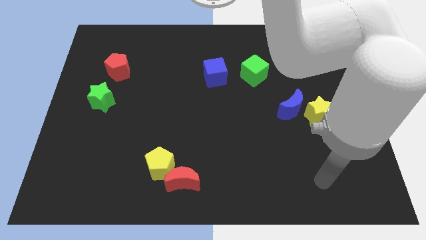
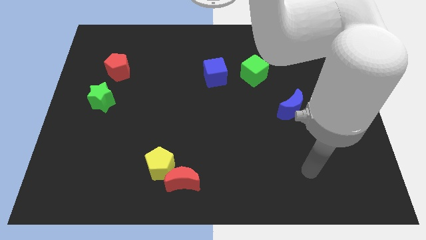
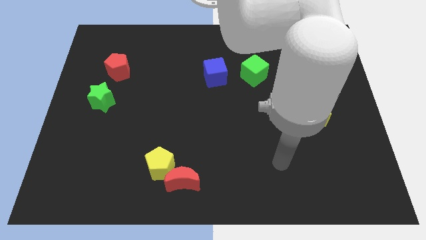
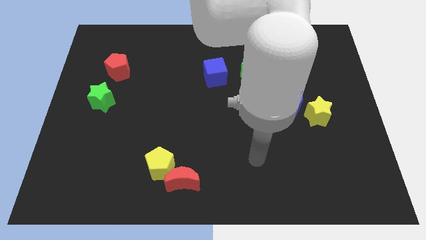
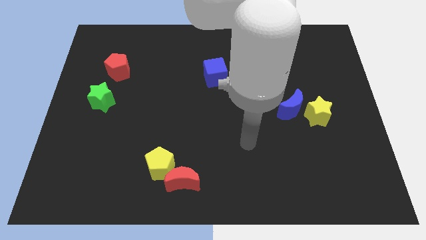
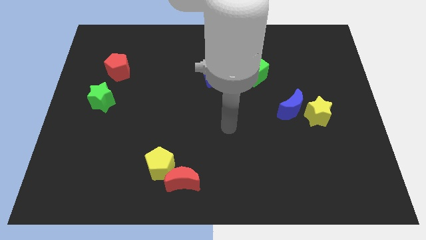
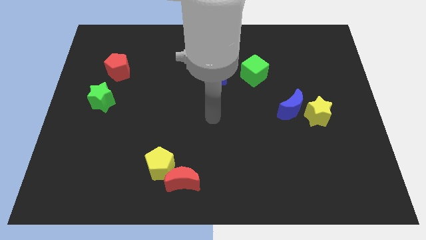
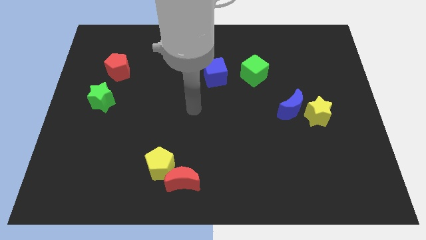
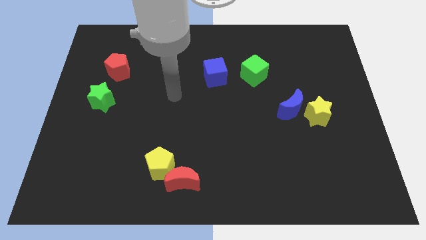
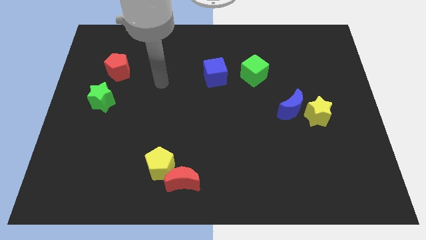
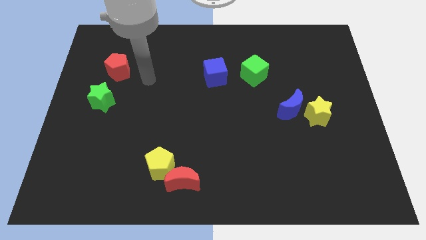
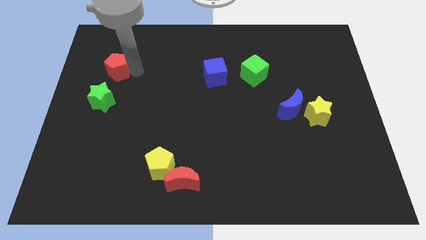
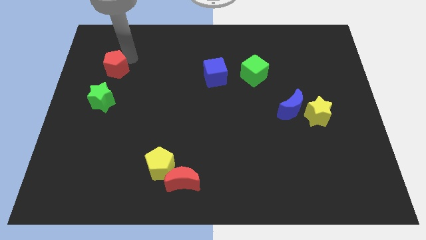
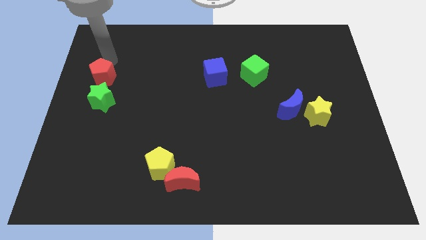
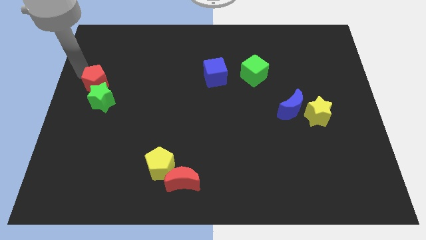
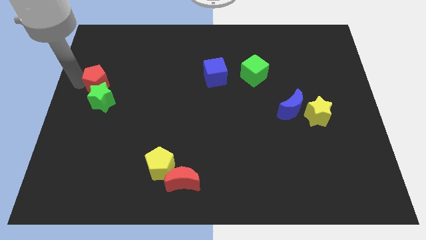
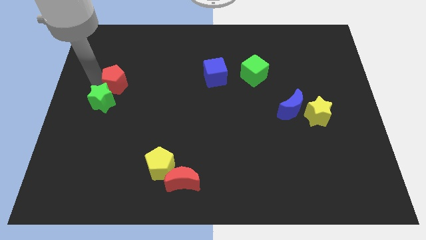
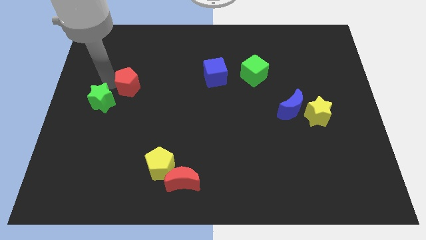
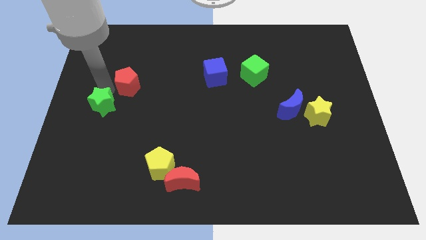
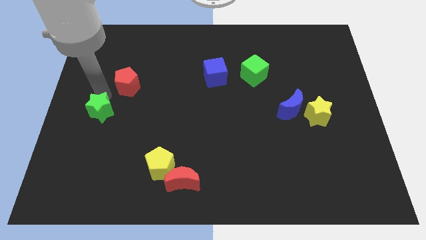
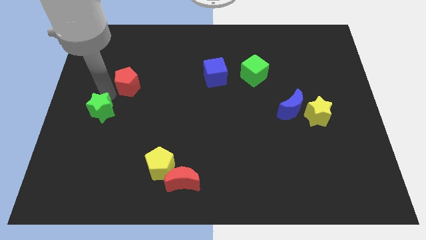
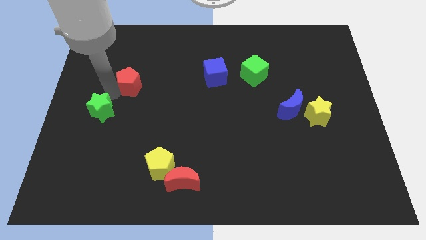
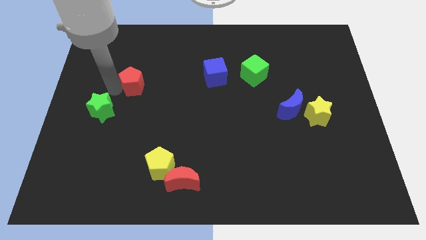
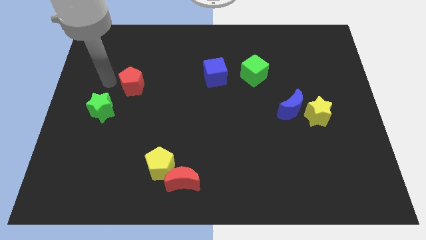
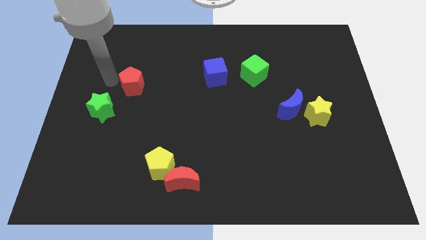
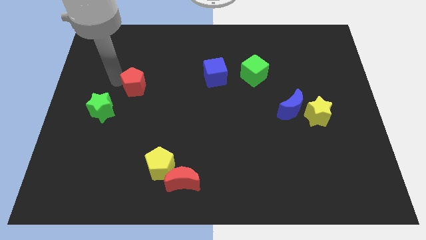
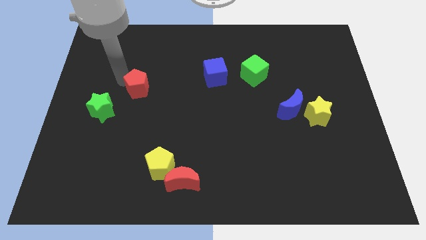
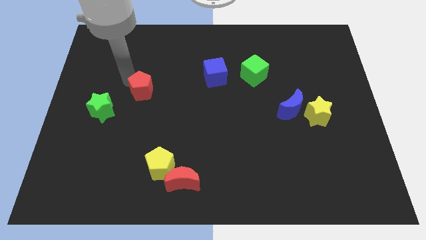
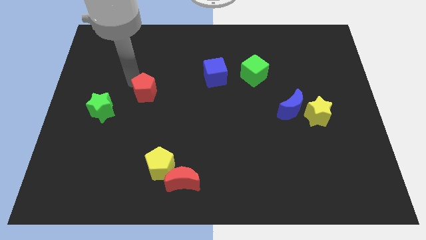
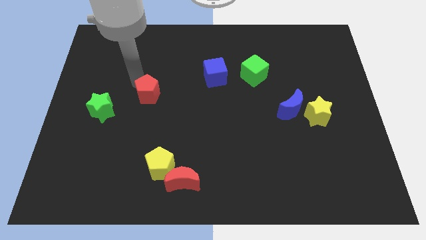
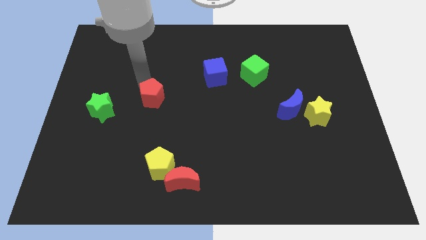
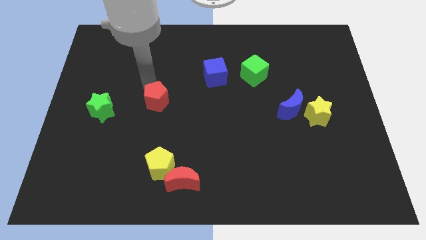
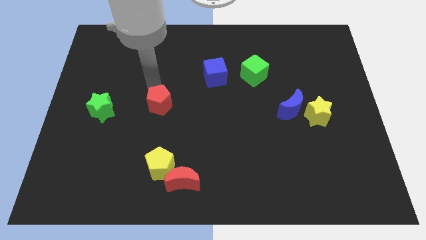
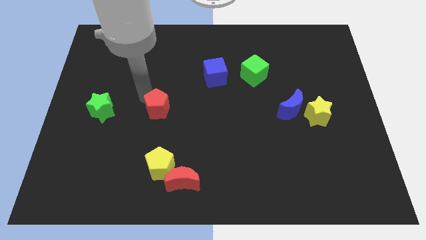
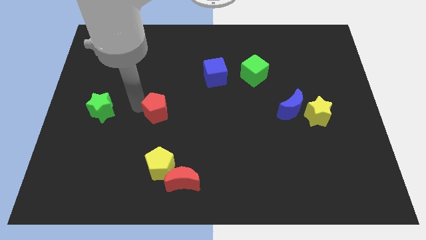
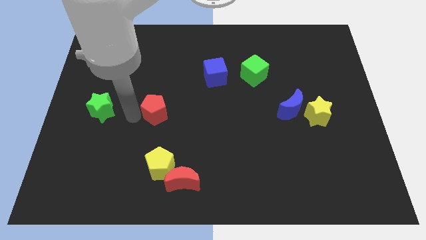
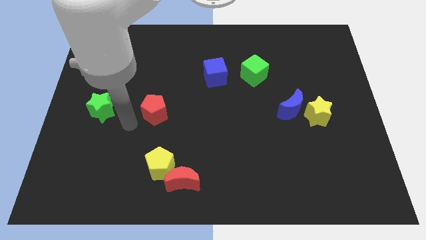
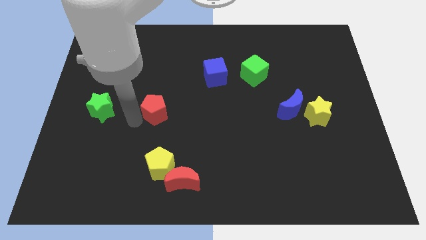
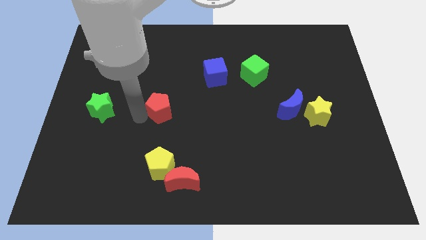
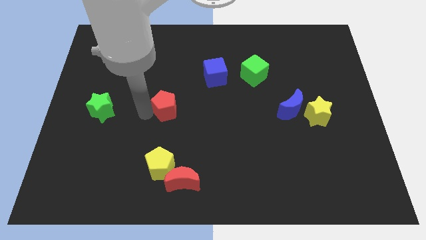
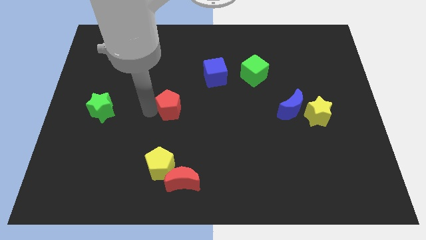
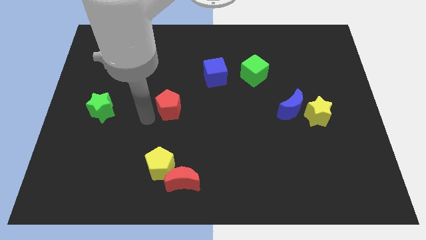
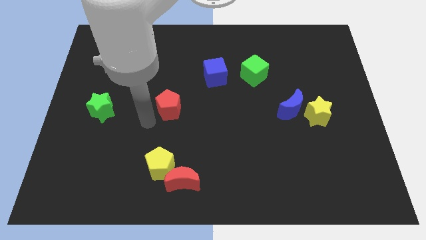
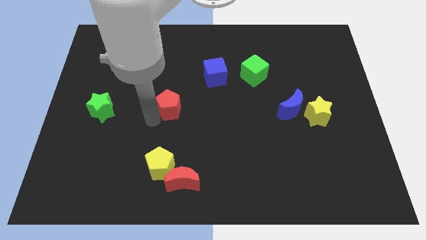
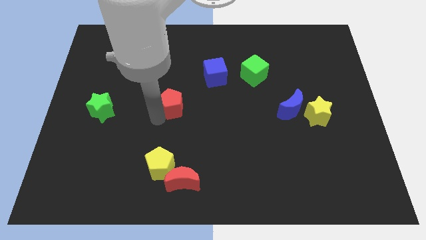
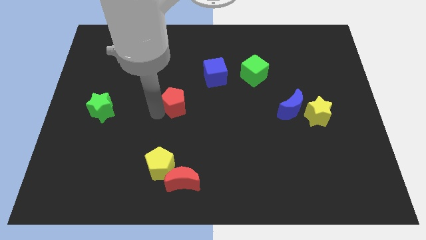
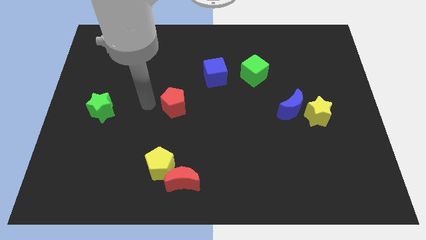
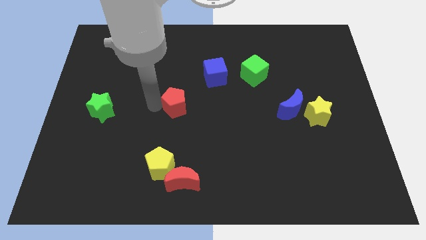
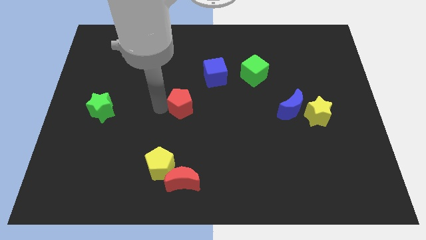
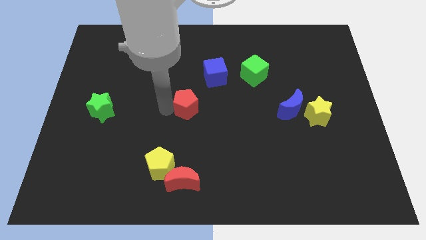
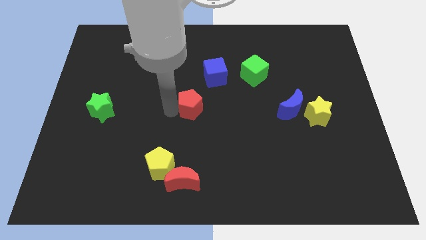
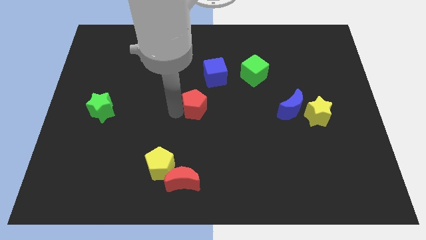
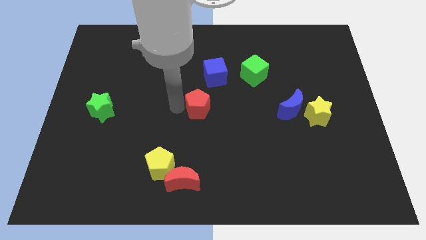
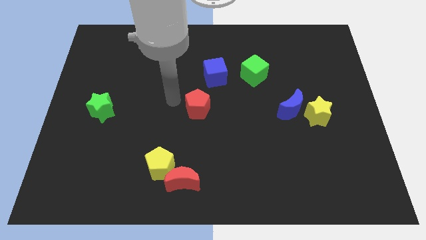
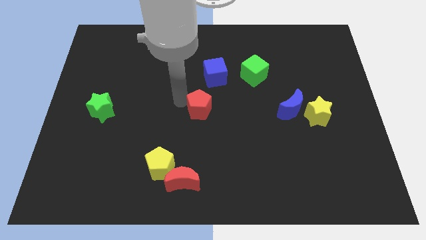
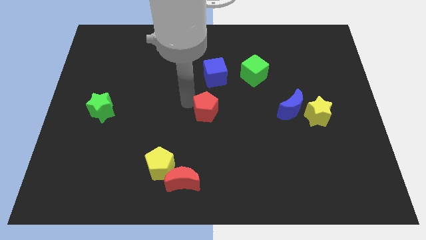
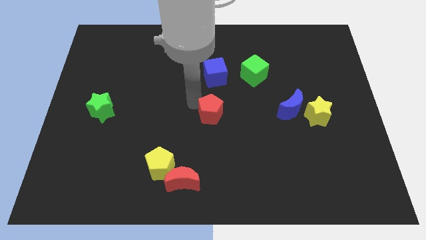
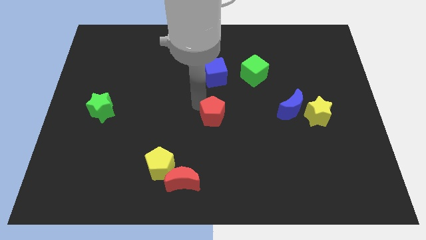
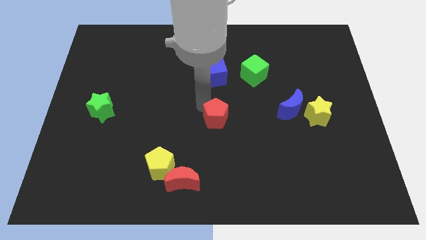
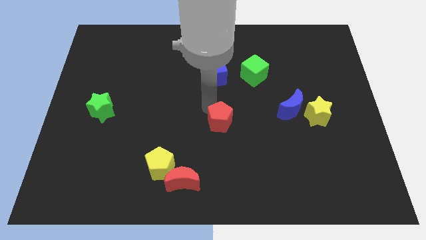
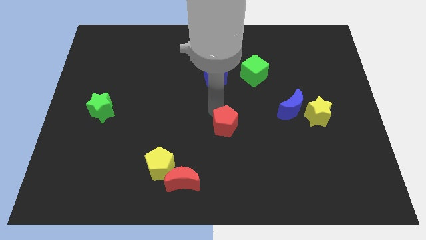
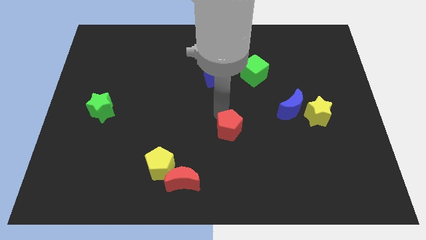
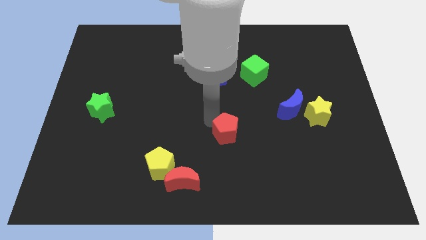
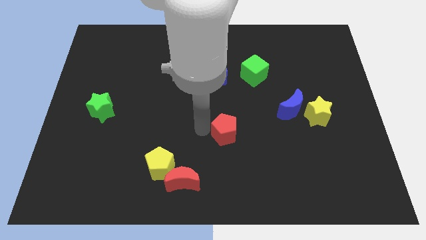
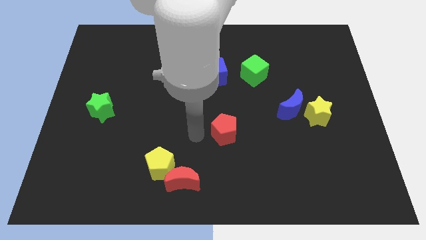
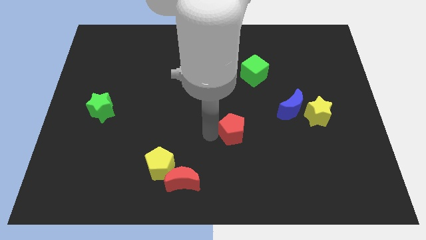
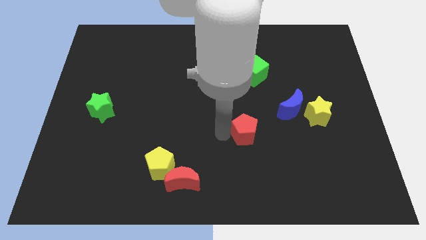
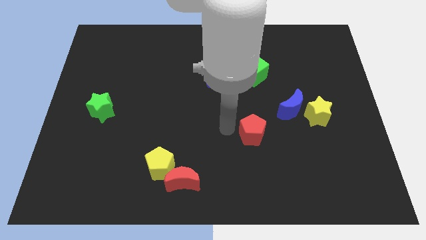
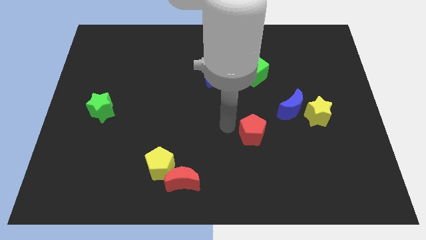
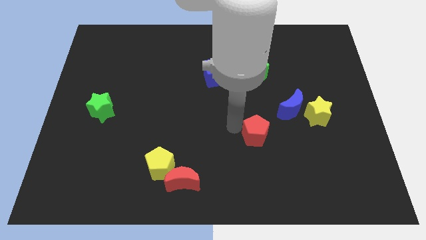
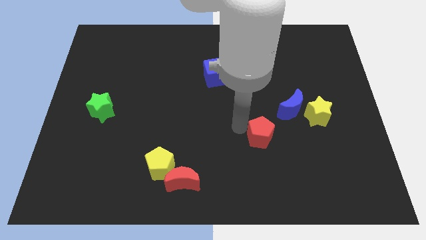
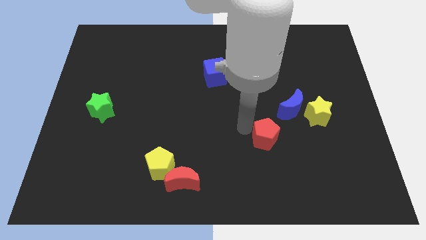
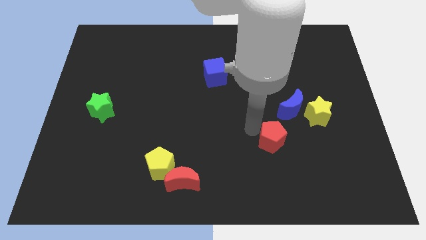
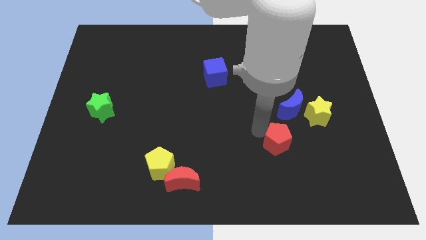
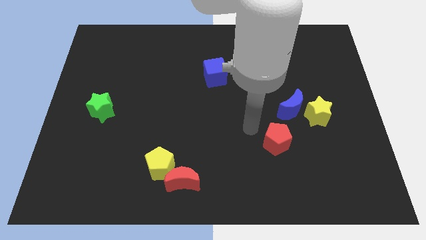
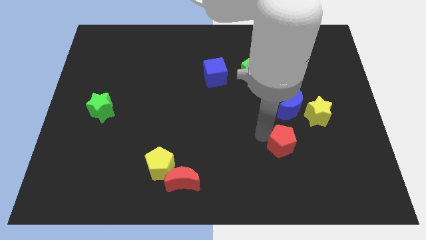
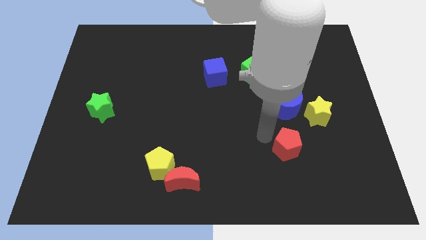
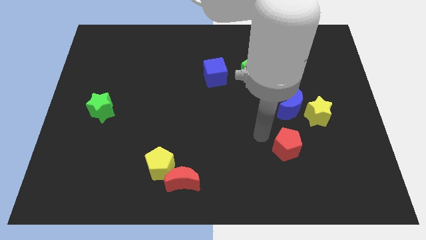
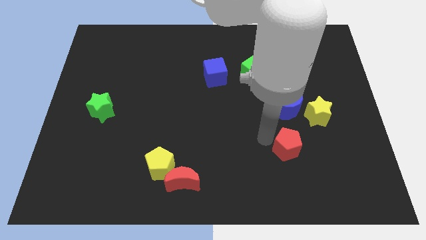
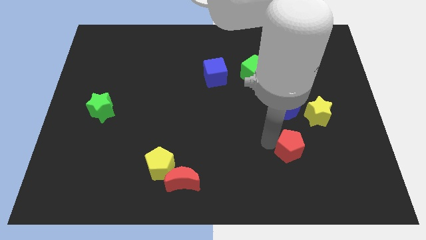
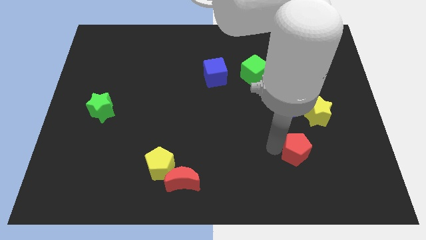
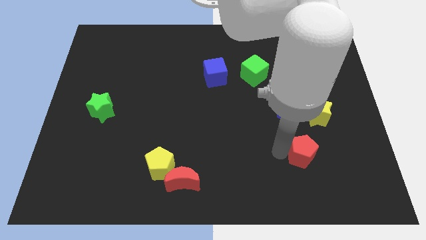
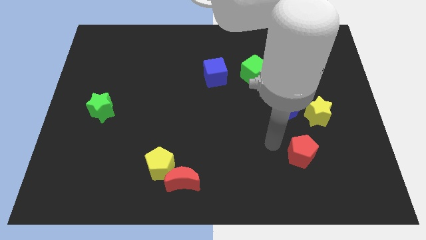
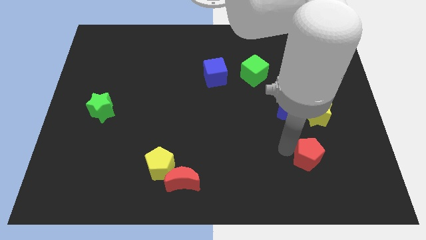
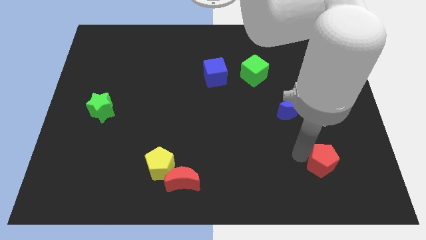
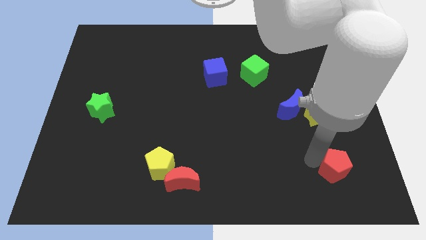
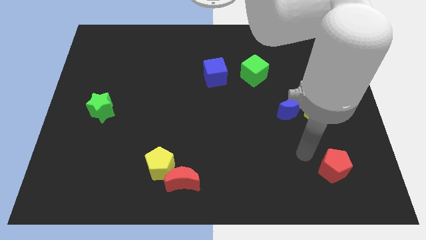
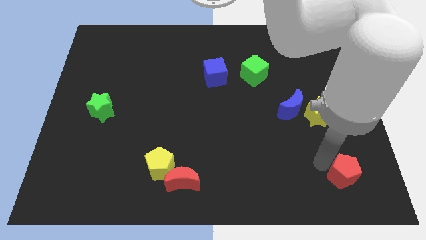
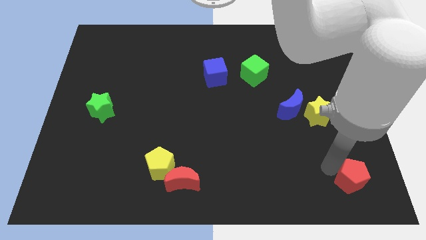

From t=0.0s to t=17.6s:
move the red pentagon to the bottom right of the board
